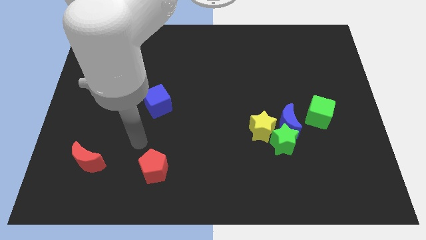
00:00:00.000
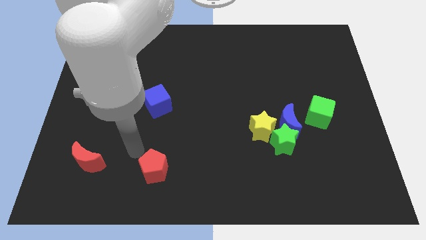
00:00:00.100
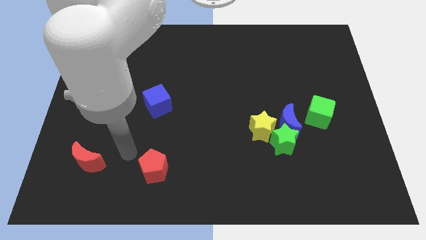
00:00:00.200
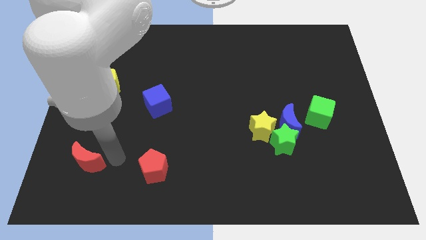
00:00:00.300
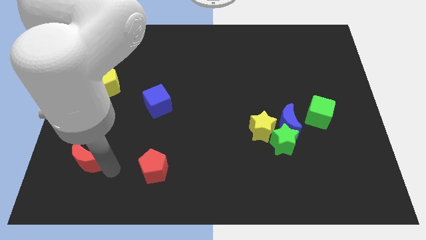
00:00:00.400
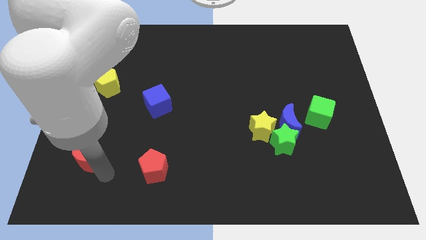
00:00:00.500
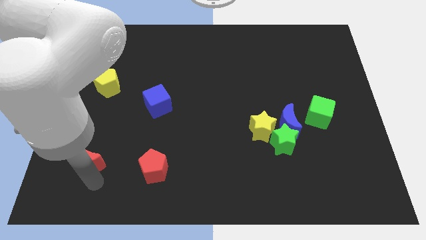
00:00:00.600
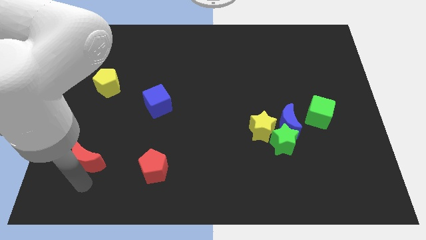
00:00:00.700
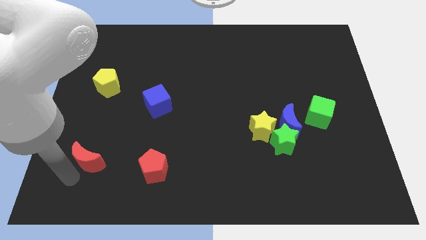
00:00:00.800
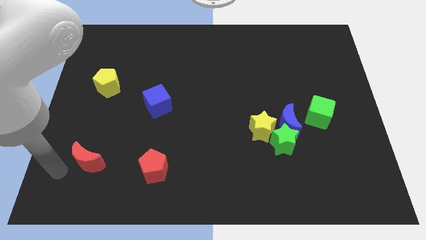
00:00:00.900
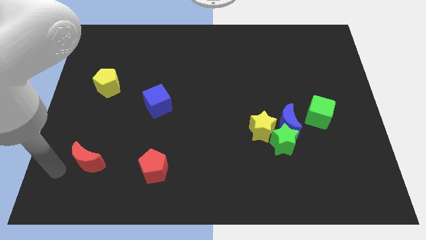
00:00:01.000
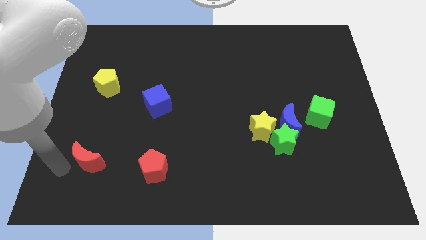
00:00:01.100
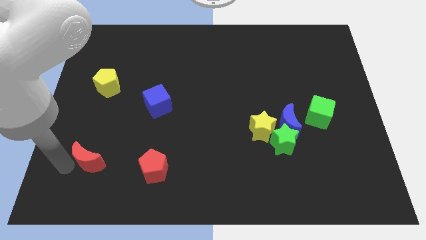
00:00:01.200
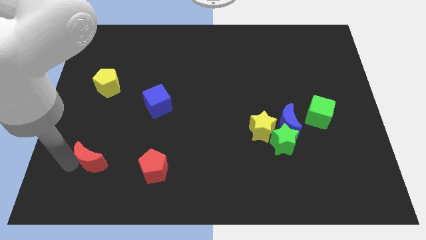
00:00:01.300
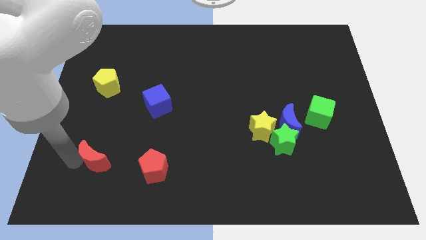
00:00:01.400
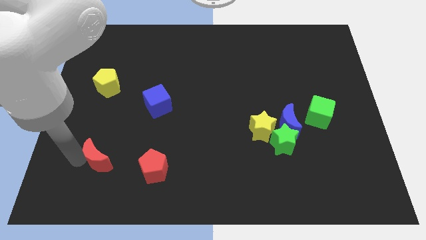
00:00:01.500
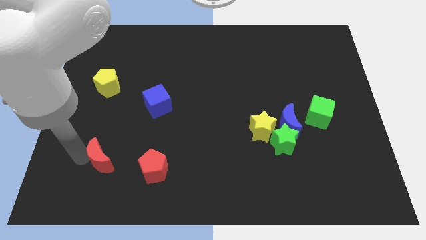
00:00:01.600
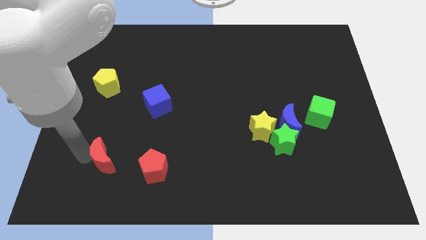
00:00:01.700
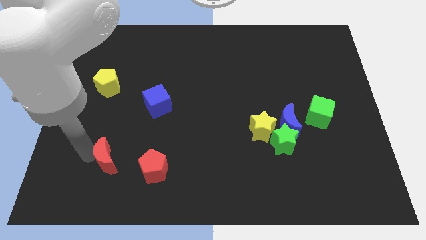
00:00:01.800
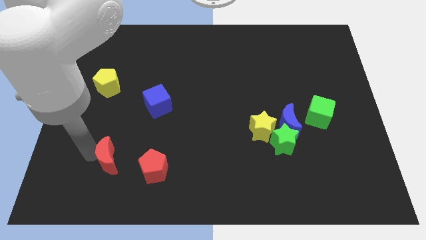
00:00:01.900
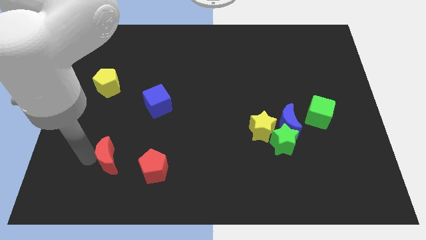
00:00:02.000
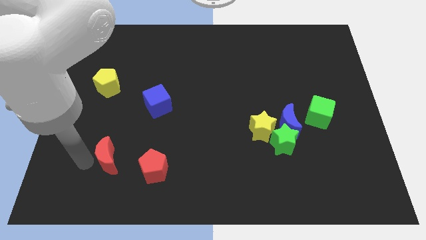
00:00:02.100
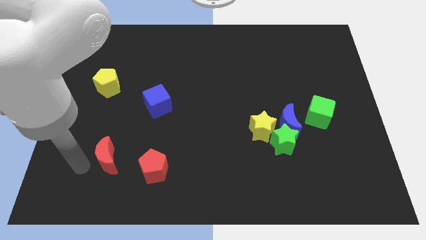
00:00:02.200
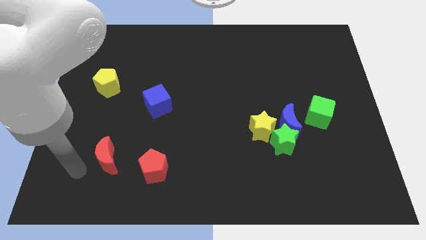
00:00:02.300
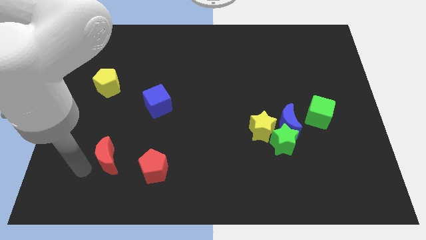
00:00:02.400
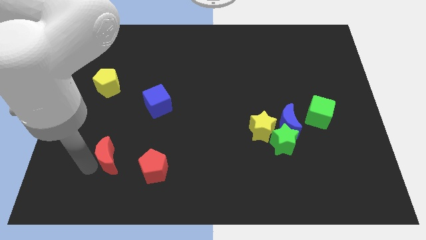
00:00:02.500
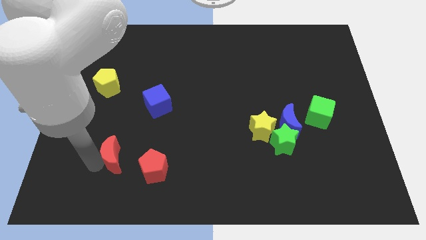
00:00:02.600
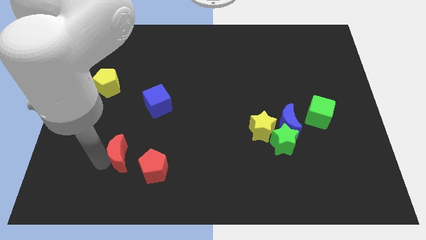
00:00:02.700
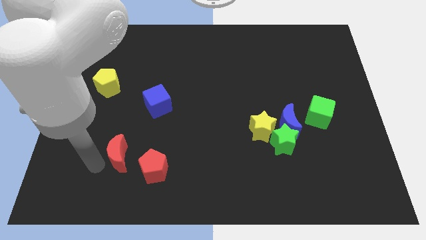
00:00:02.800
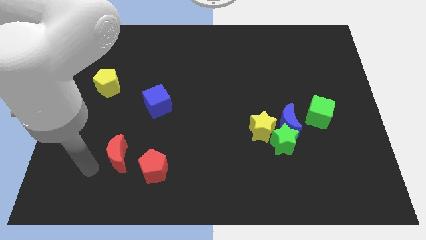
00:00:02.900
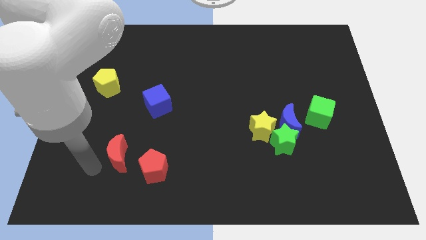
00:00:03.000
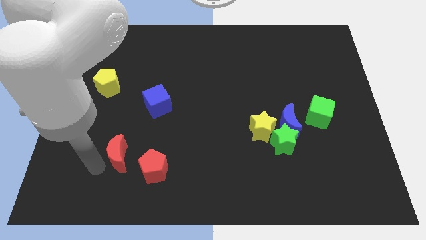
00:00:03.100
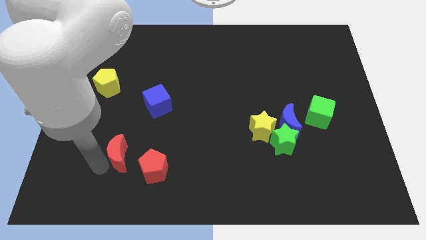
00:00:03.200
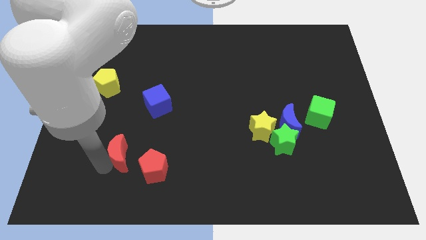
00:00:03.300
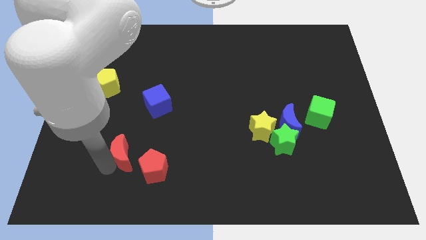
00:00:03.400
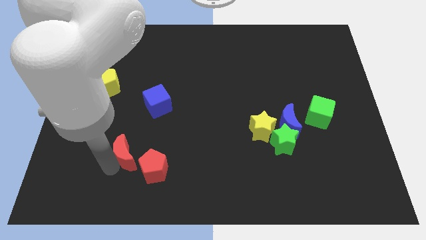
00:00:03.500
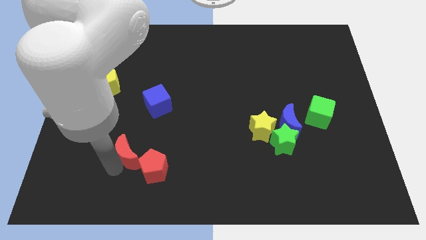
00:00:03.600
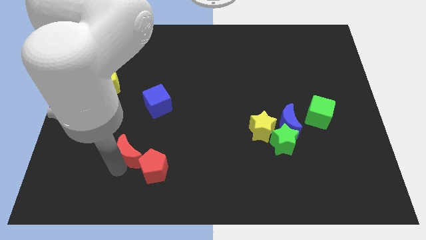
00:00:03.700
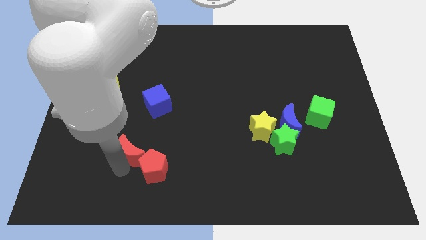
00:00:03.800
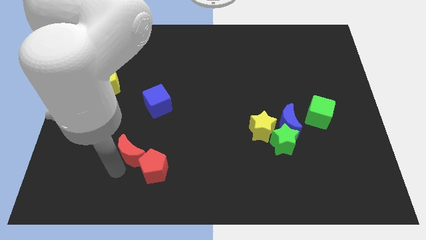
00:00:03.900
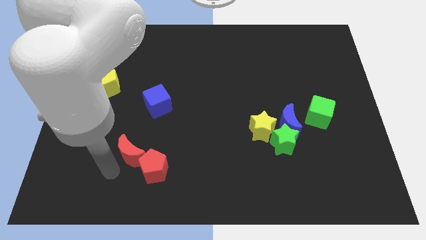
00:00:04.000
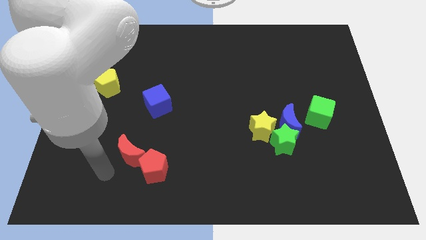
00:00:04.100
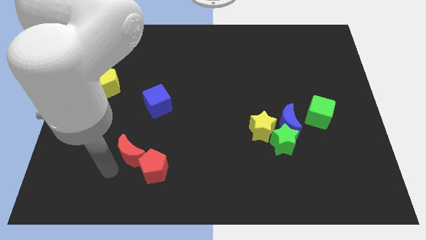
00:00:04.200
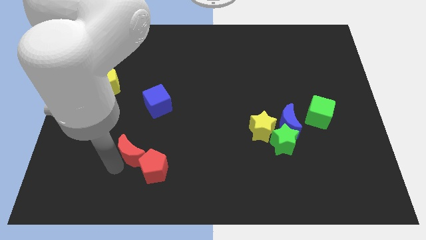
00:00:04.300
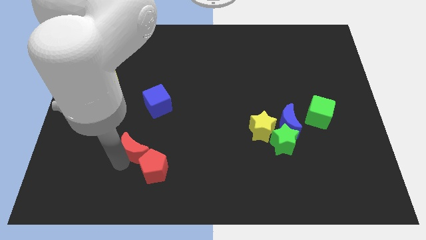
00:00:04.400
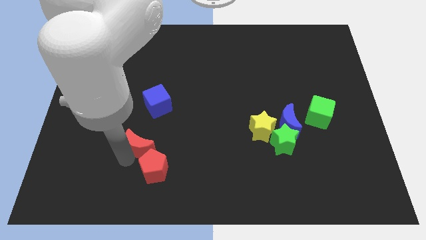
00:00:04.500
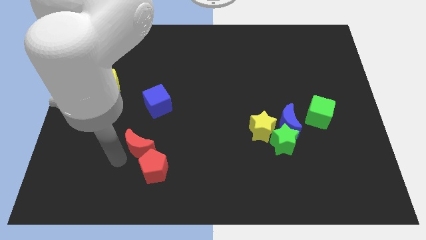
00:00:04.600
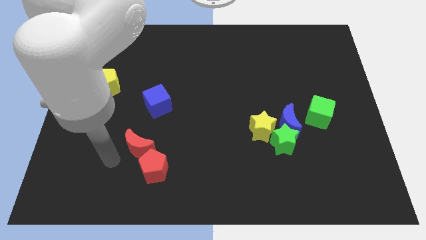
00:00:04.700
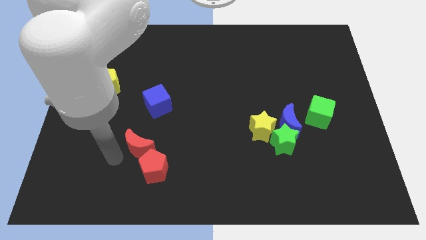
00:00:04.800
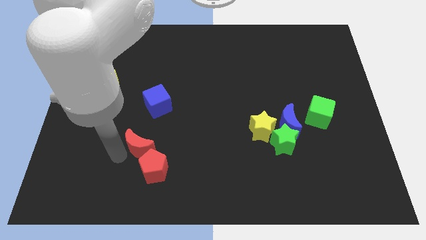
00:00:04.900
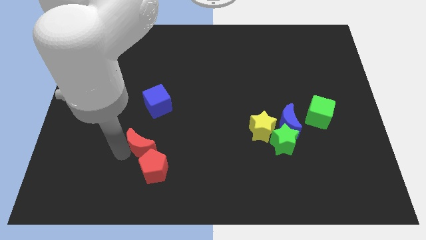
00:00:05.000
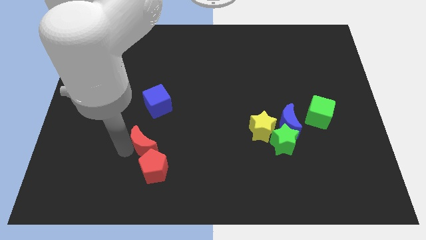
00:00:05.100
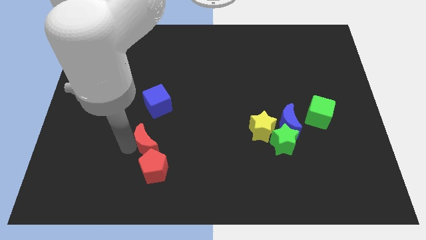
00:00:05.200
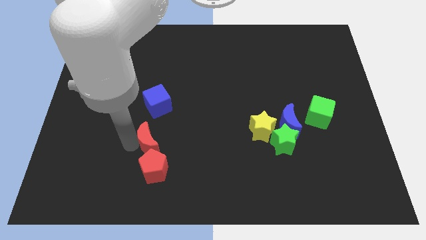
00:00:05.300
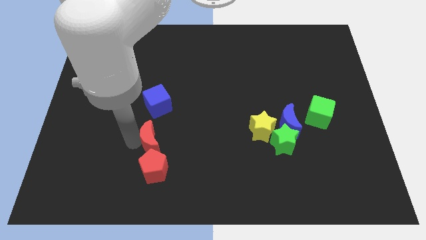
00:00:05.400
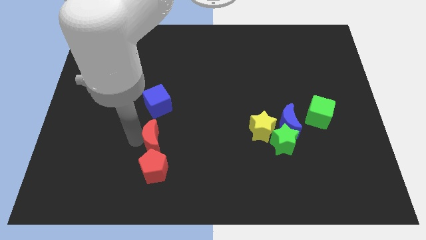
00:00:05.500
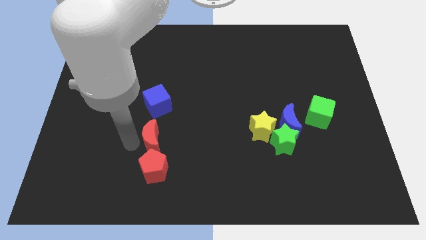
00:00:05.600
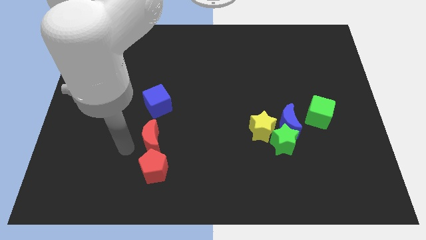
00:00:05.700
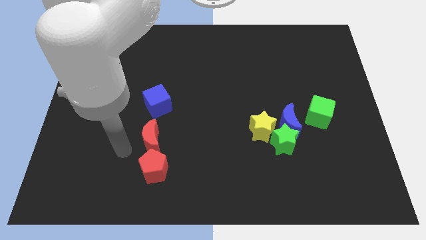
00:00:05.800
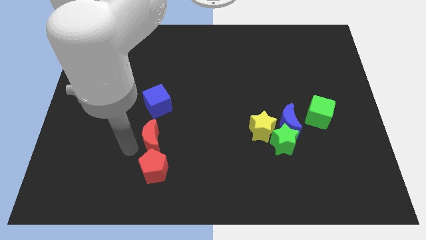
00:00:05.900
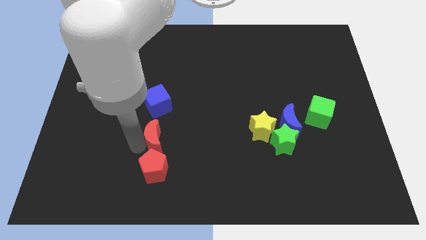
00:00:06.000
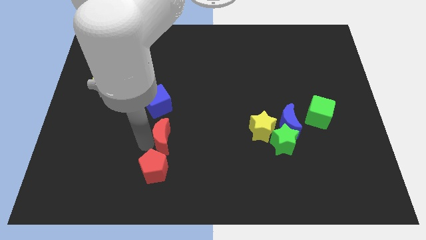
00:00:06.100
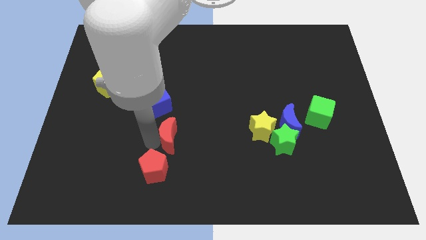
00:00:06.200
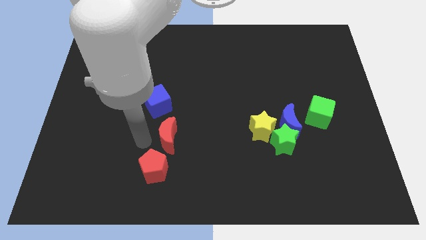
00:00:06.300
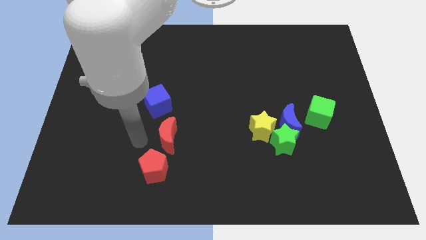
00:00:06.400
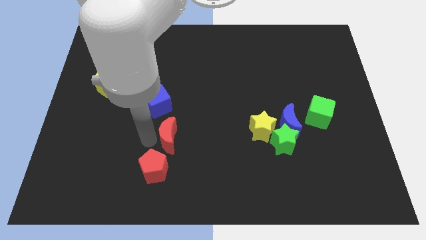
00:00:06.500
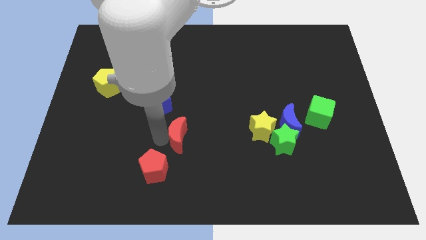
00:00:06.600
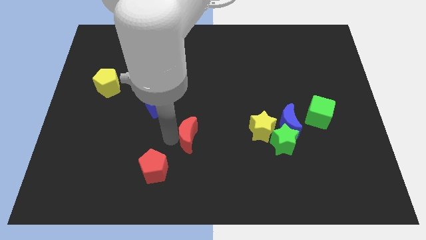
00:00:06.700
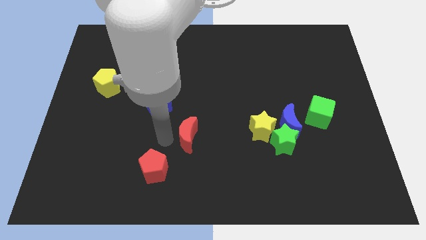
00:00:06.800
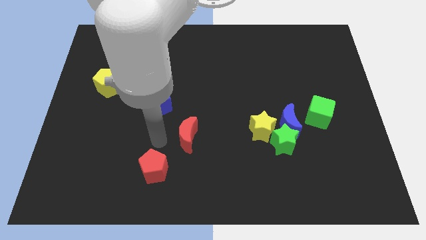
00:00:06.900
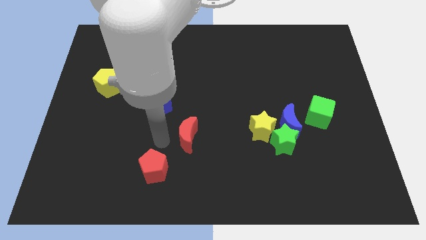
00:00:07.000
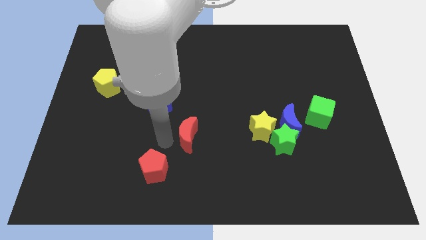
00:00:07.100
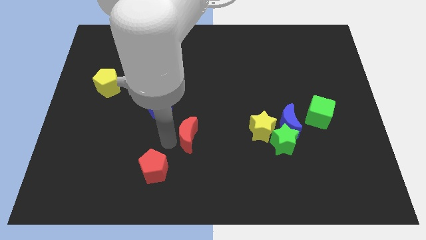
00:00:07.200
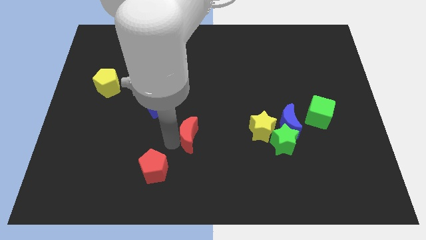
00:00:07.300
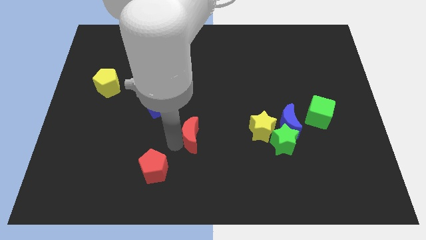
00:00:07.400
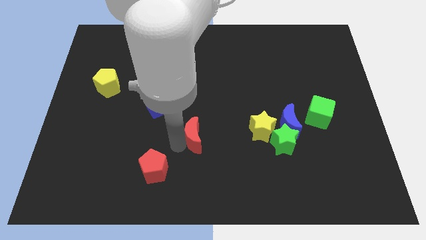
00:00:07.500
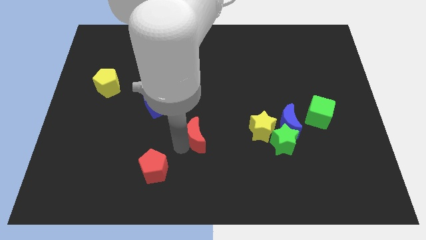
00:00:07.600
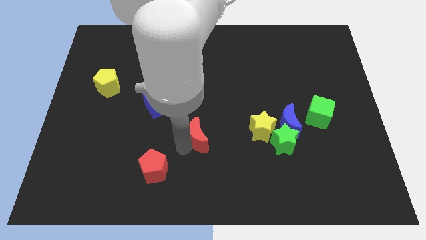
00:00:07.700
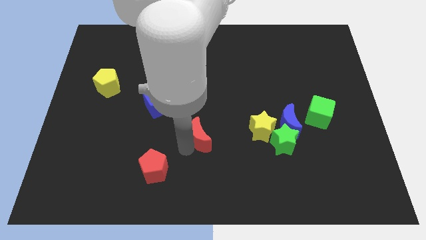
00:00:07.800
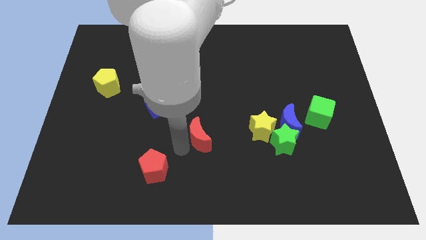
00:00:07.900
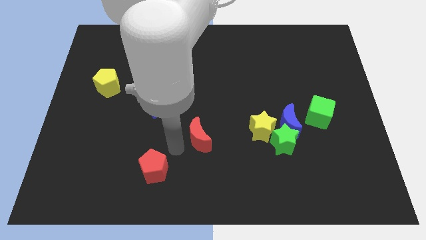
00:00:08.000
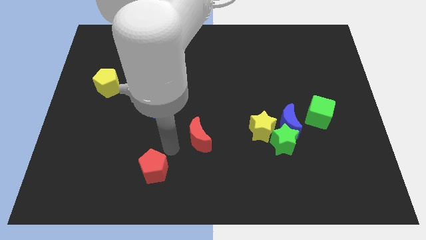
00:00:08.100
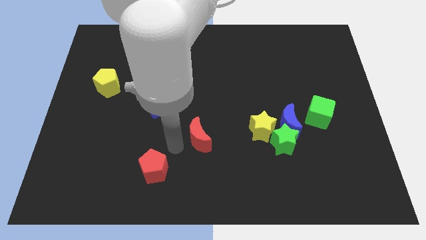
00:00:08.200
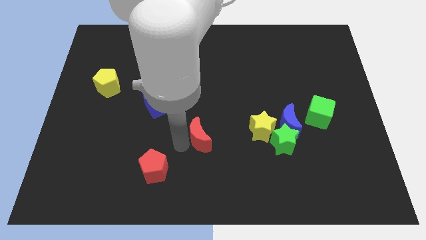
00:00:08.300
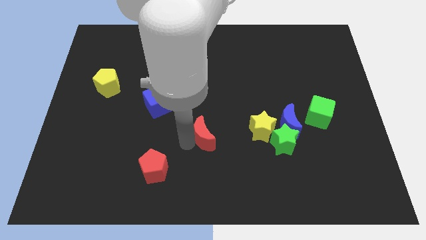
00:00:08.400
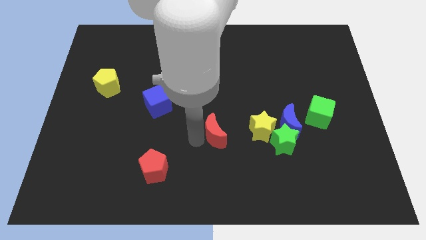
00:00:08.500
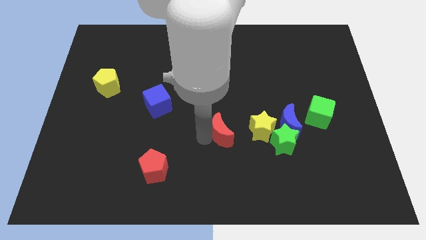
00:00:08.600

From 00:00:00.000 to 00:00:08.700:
slide the red moon left of the blue moon
